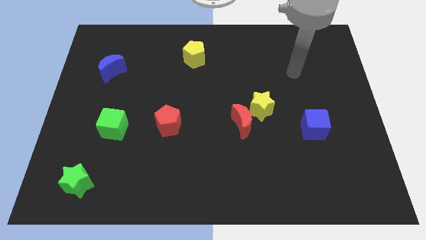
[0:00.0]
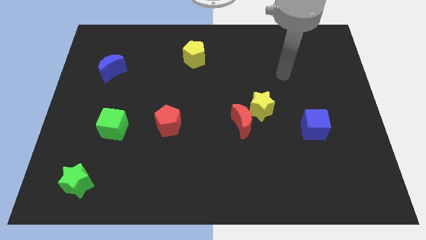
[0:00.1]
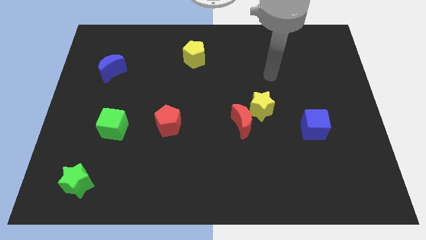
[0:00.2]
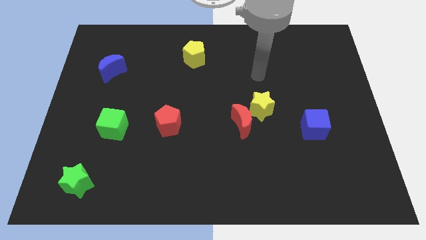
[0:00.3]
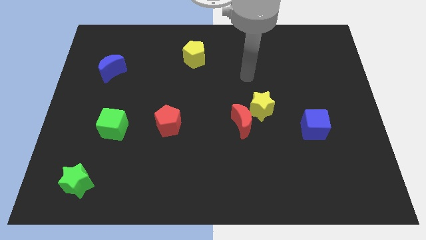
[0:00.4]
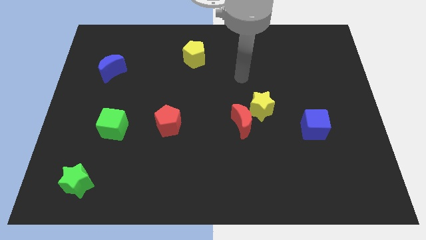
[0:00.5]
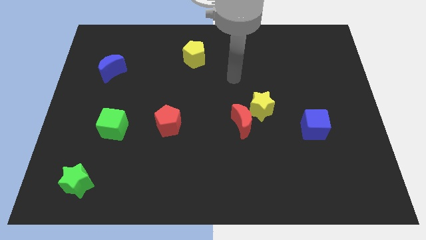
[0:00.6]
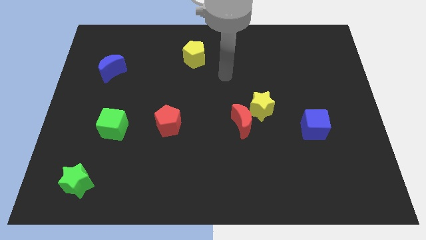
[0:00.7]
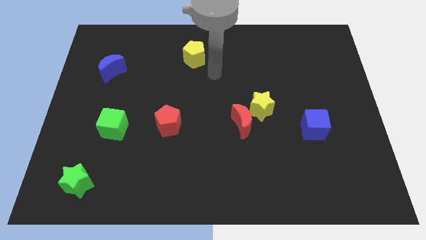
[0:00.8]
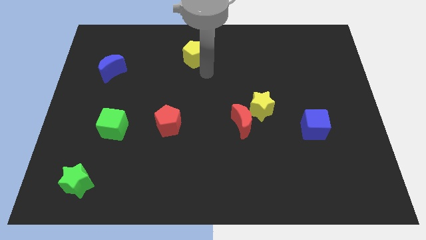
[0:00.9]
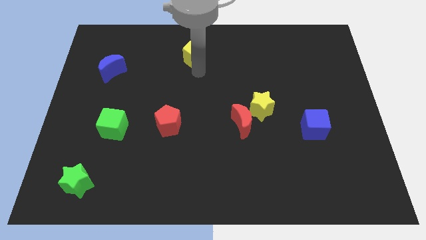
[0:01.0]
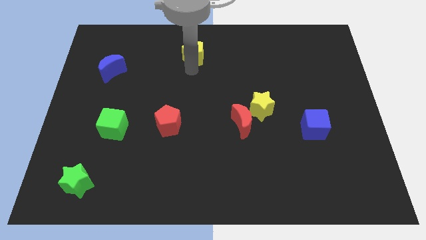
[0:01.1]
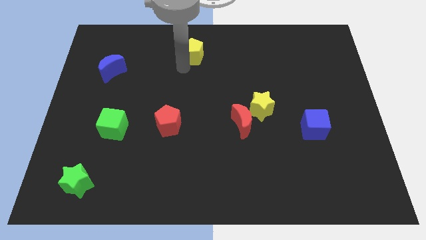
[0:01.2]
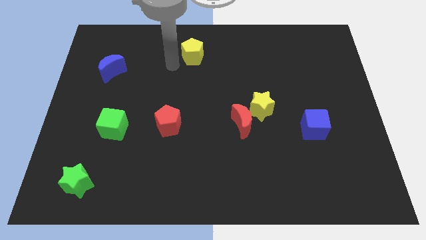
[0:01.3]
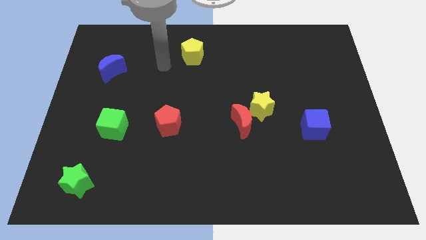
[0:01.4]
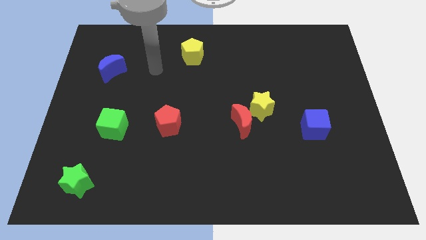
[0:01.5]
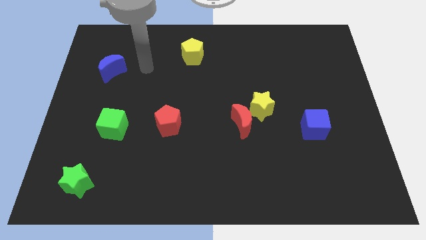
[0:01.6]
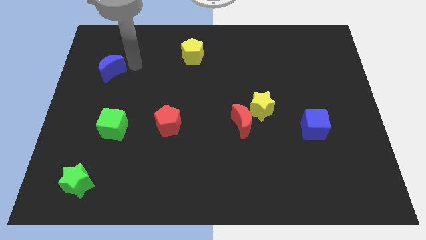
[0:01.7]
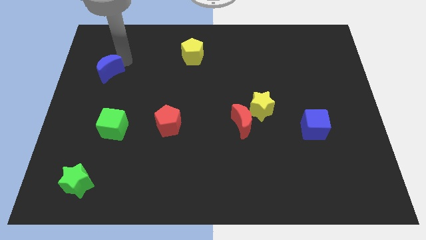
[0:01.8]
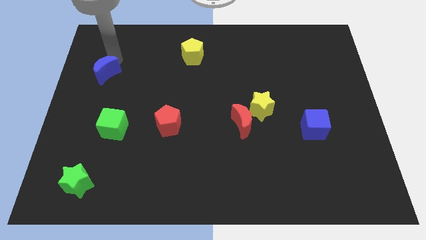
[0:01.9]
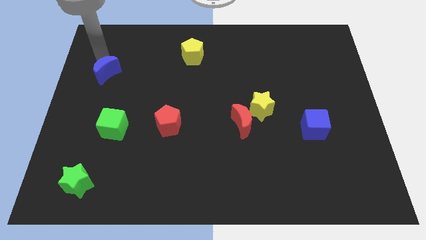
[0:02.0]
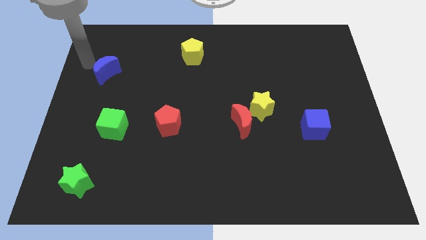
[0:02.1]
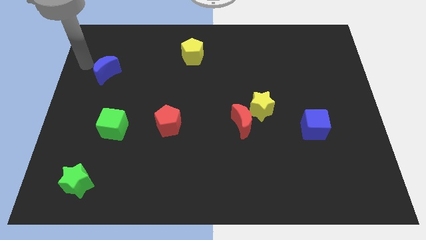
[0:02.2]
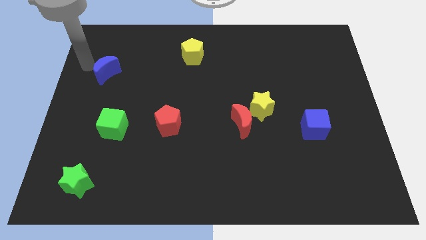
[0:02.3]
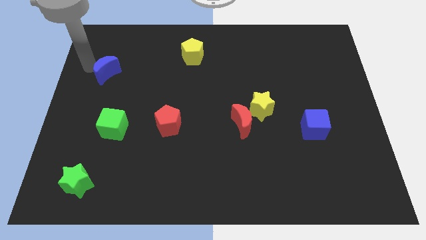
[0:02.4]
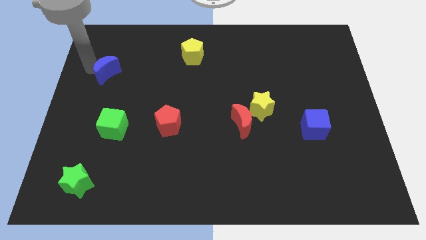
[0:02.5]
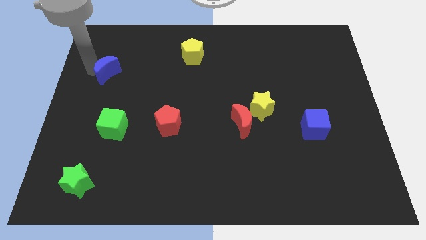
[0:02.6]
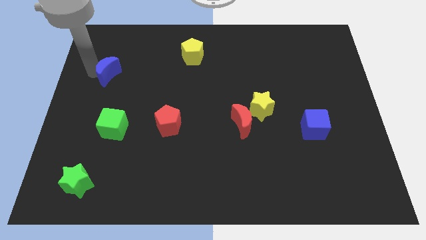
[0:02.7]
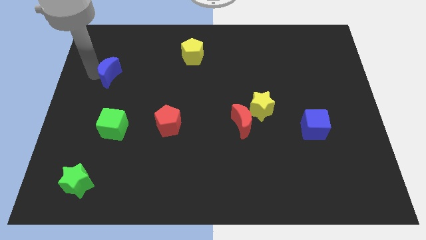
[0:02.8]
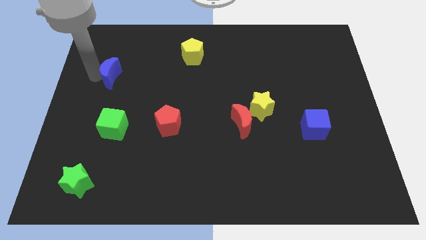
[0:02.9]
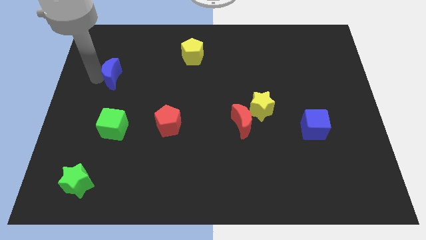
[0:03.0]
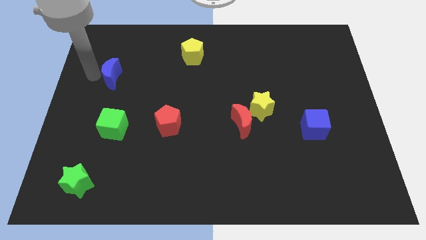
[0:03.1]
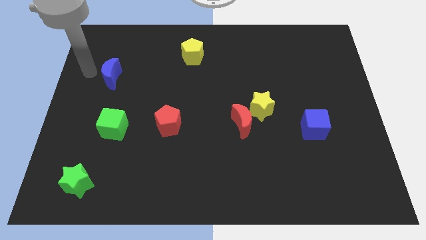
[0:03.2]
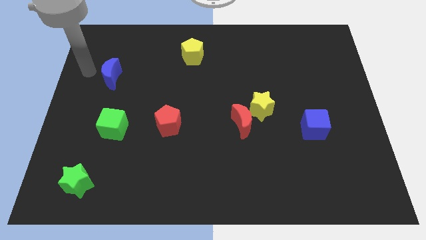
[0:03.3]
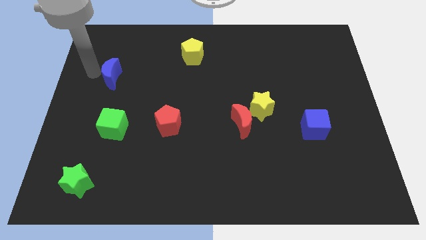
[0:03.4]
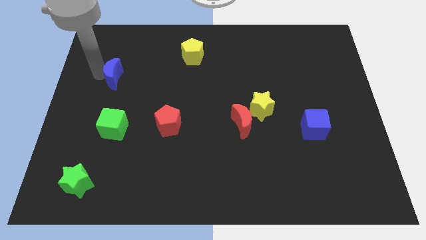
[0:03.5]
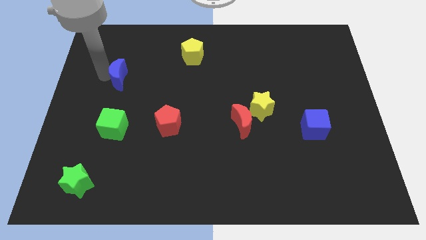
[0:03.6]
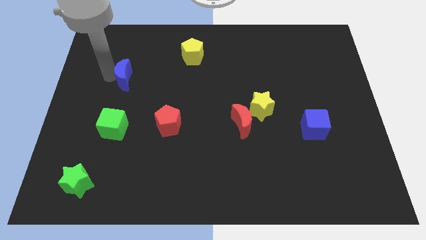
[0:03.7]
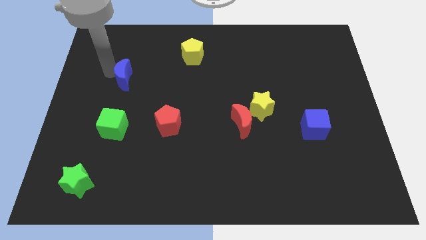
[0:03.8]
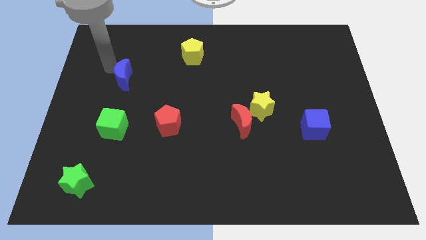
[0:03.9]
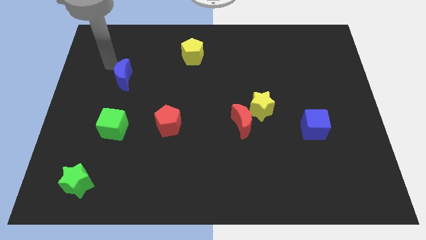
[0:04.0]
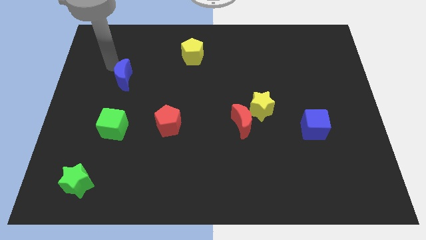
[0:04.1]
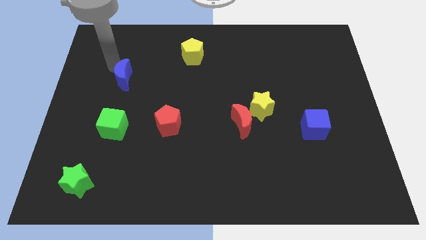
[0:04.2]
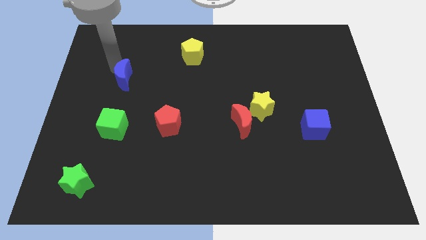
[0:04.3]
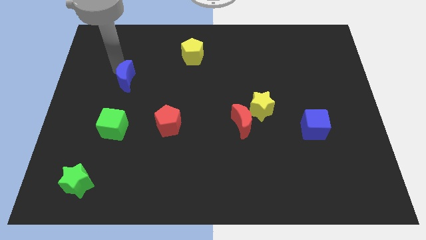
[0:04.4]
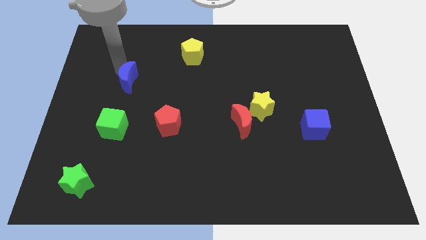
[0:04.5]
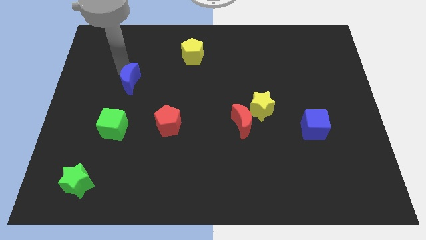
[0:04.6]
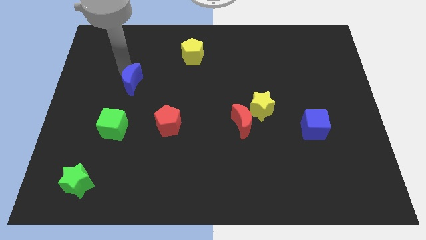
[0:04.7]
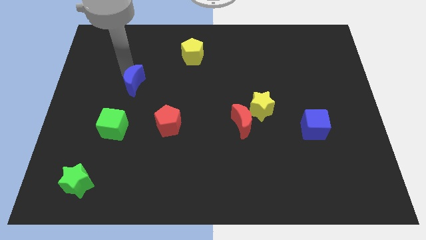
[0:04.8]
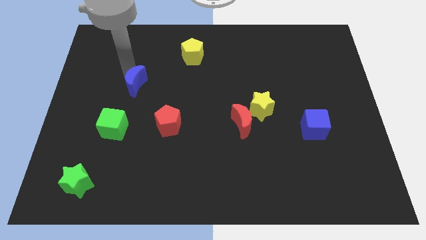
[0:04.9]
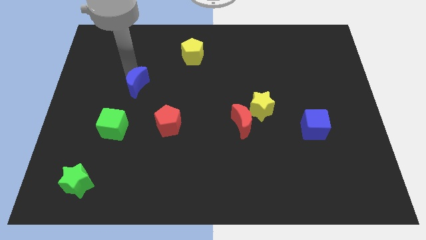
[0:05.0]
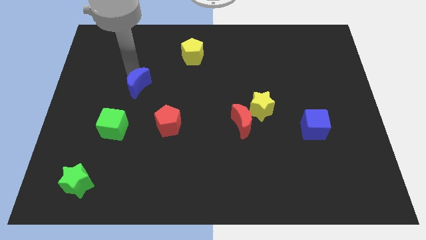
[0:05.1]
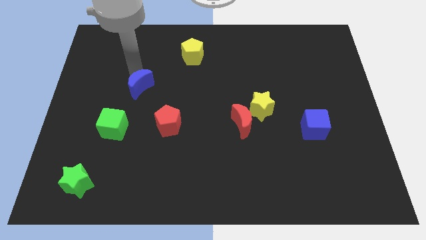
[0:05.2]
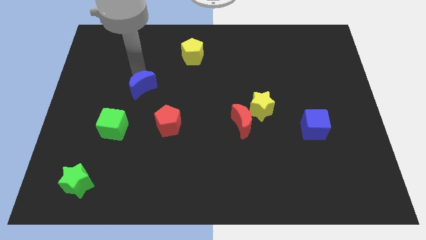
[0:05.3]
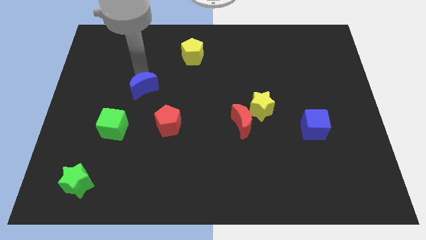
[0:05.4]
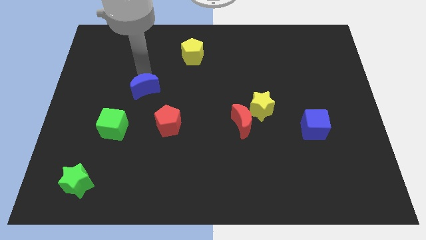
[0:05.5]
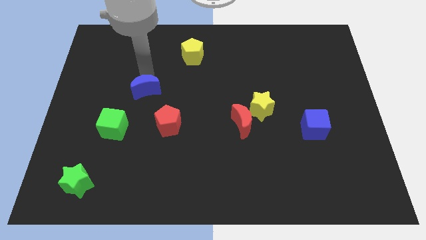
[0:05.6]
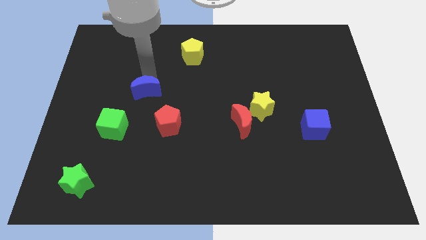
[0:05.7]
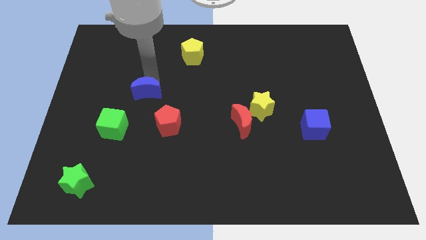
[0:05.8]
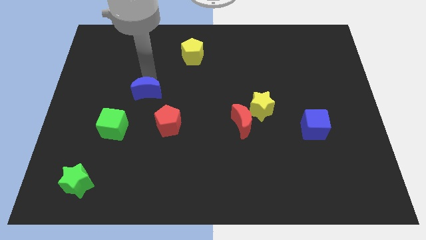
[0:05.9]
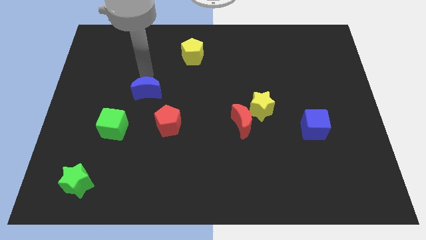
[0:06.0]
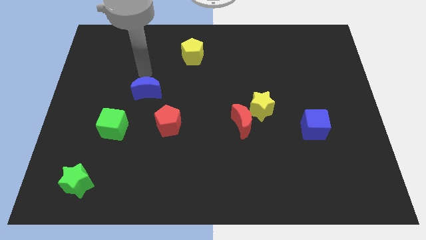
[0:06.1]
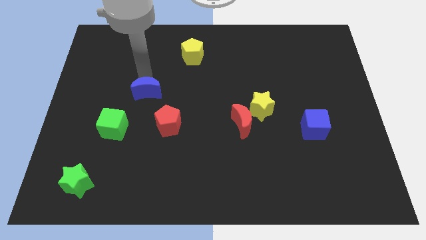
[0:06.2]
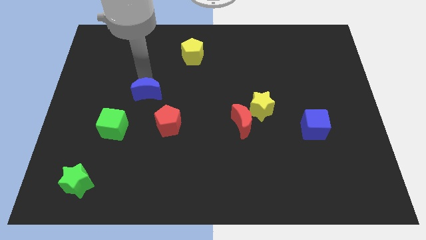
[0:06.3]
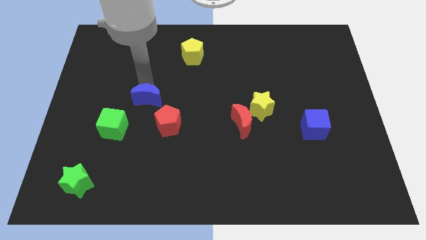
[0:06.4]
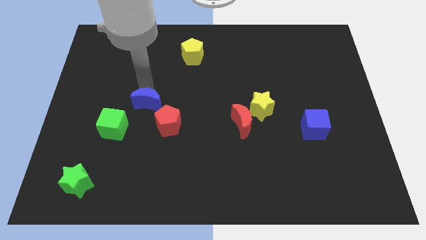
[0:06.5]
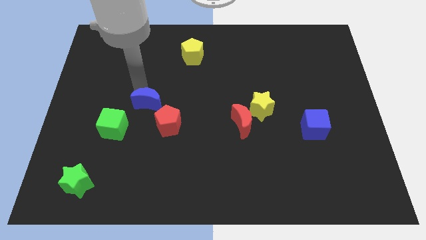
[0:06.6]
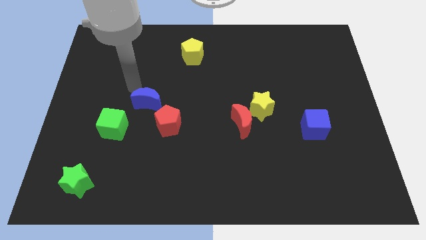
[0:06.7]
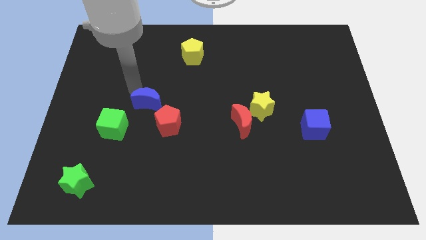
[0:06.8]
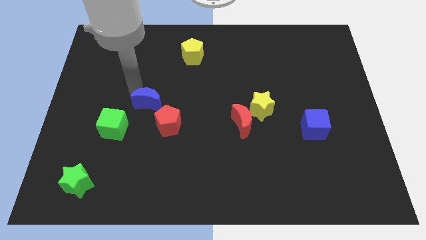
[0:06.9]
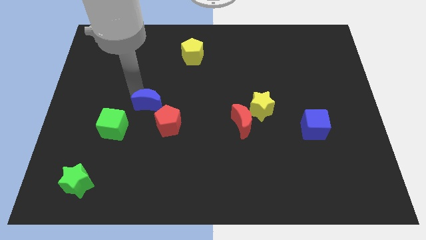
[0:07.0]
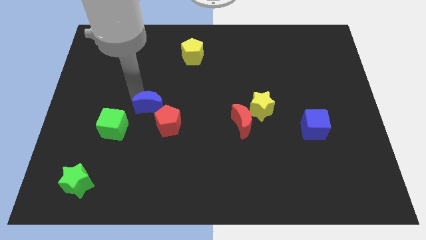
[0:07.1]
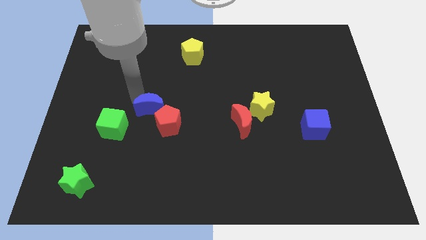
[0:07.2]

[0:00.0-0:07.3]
slide the blue moon close to the red pentagon
